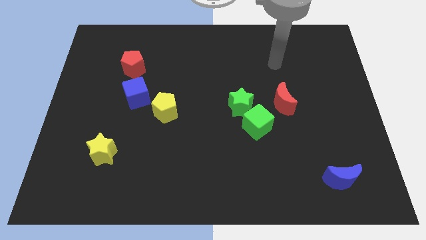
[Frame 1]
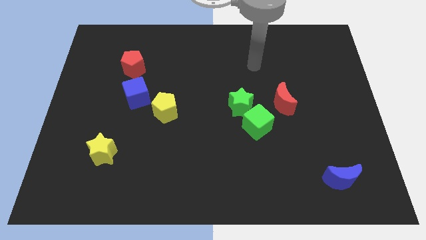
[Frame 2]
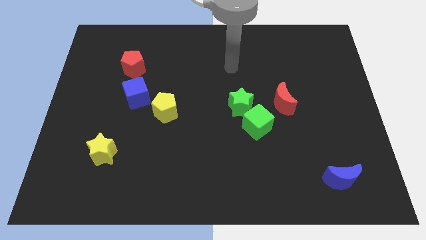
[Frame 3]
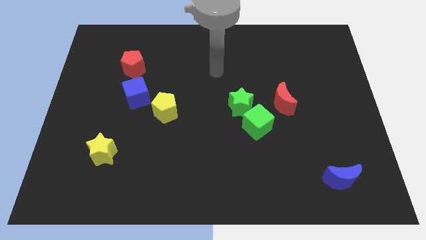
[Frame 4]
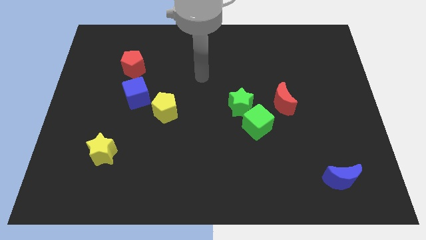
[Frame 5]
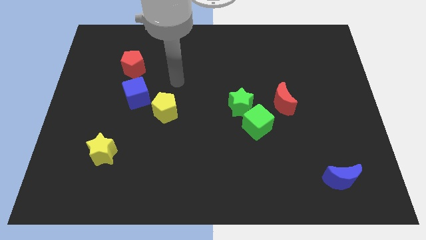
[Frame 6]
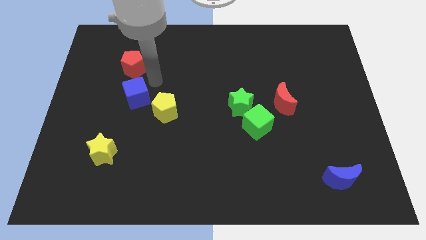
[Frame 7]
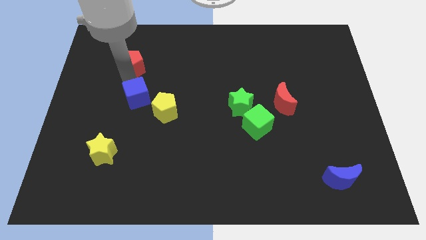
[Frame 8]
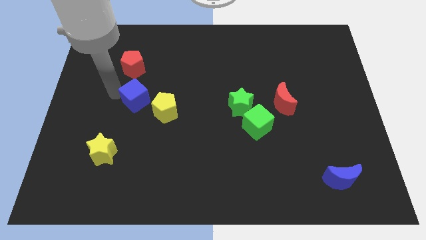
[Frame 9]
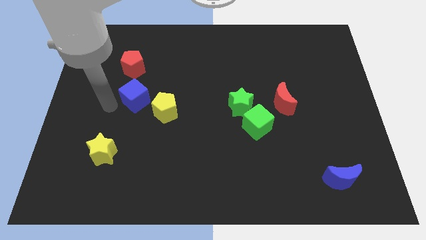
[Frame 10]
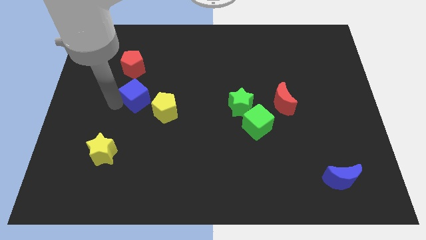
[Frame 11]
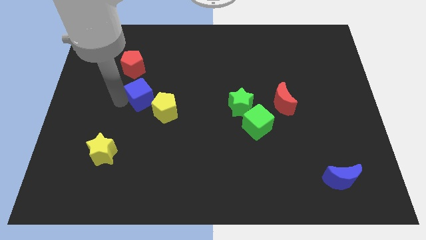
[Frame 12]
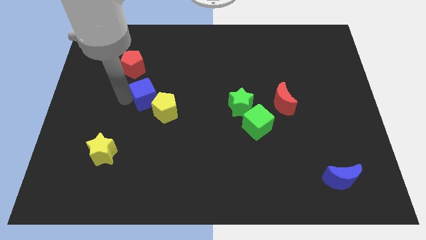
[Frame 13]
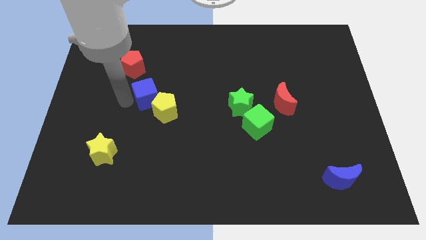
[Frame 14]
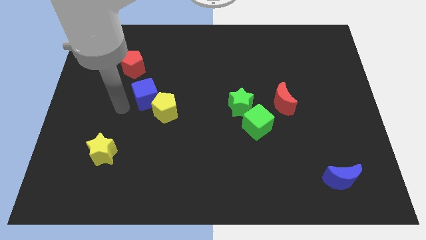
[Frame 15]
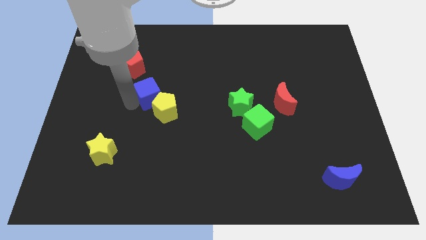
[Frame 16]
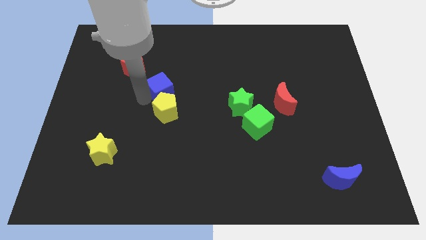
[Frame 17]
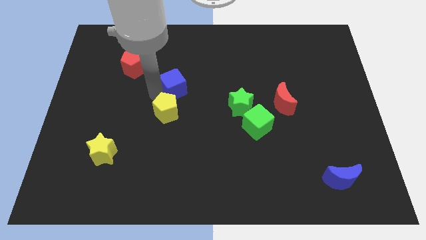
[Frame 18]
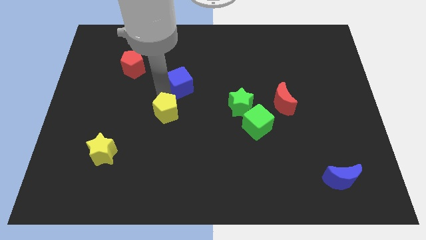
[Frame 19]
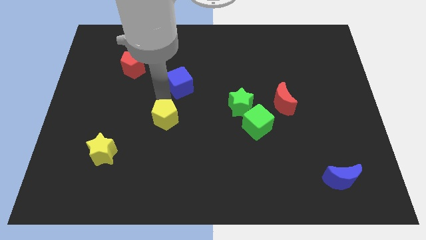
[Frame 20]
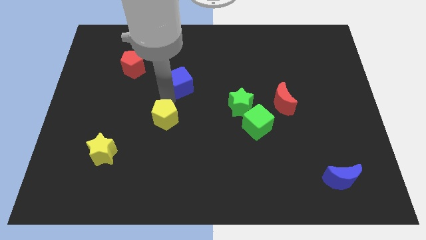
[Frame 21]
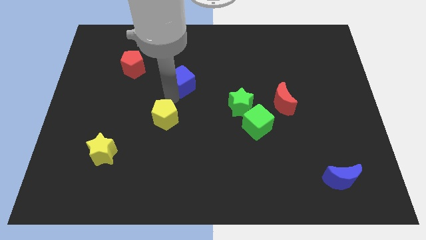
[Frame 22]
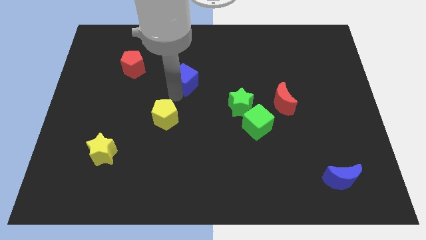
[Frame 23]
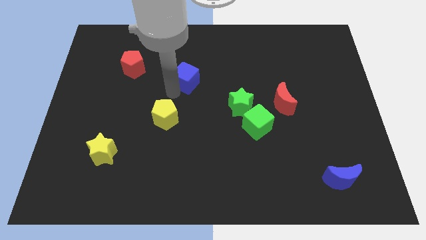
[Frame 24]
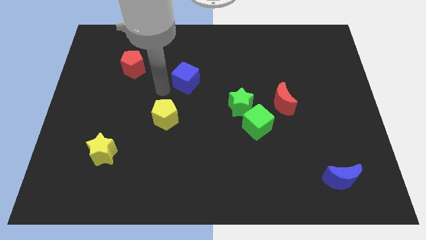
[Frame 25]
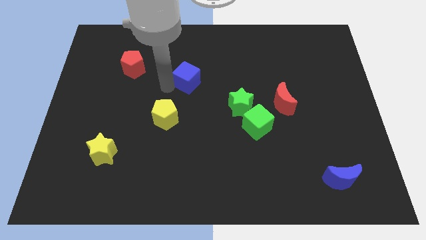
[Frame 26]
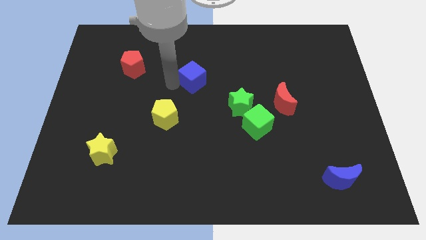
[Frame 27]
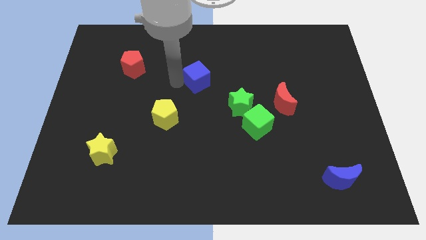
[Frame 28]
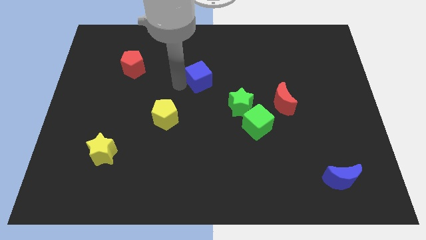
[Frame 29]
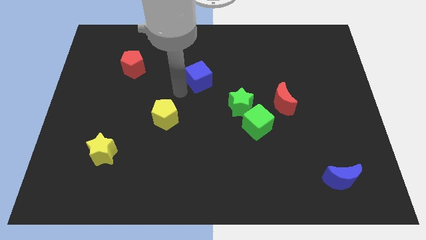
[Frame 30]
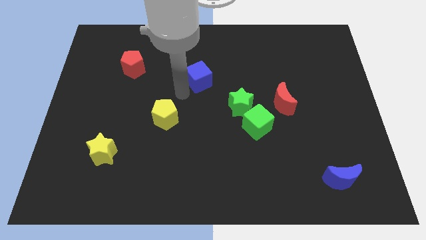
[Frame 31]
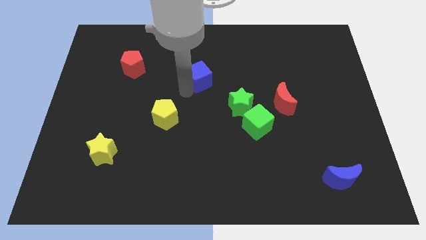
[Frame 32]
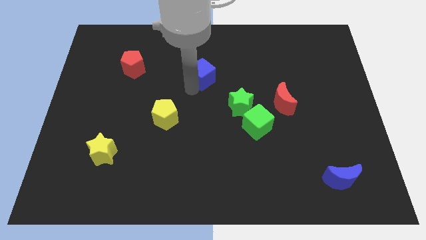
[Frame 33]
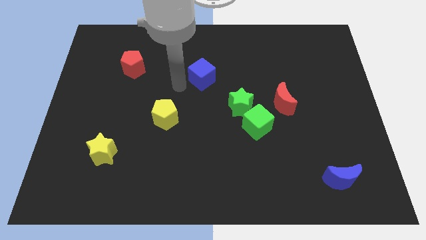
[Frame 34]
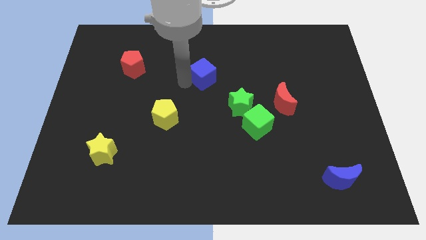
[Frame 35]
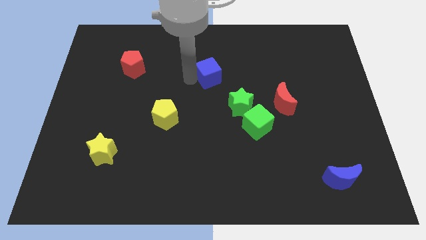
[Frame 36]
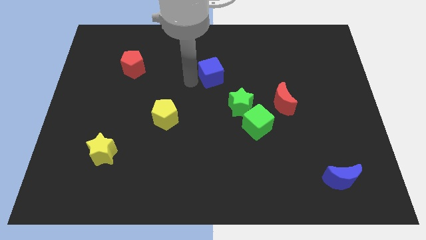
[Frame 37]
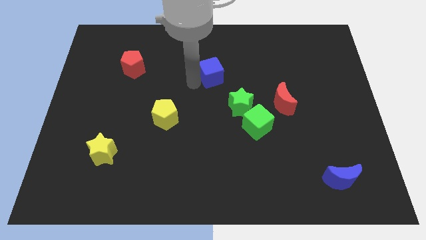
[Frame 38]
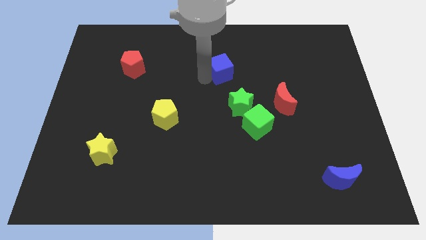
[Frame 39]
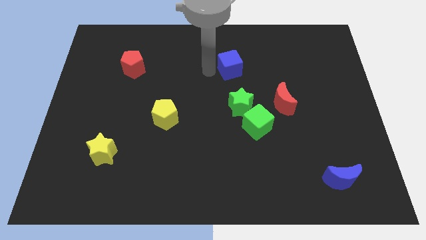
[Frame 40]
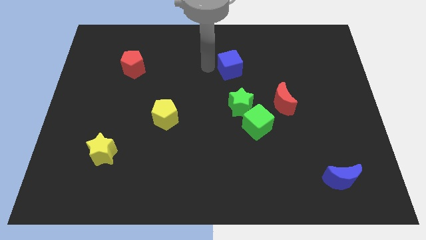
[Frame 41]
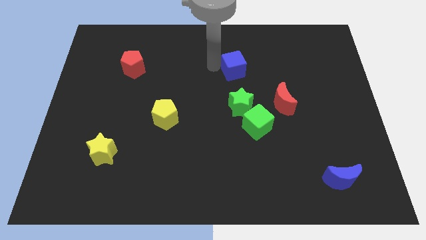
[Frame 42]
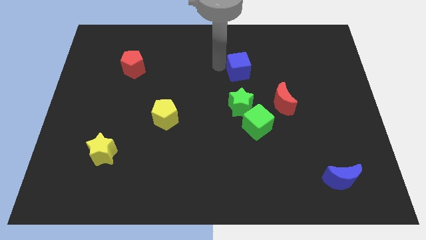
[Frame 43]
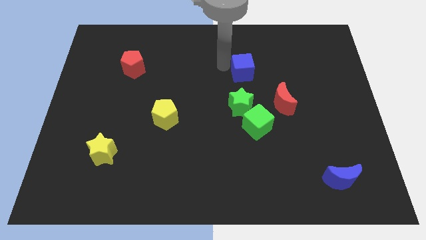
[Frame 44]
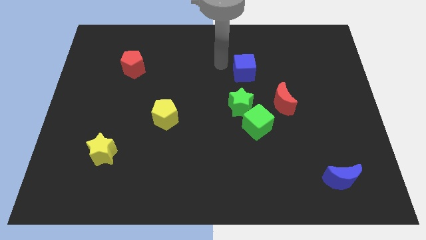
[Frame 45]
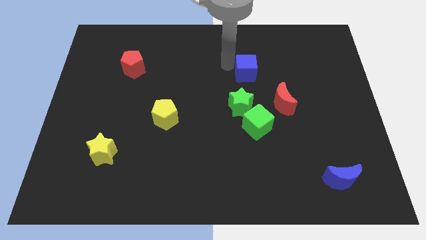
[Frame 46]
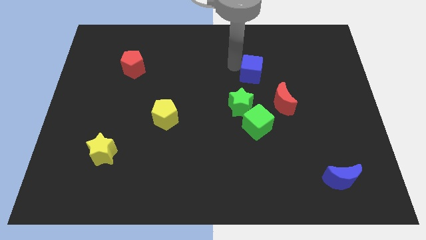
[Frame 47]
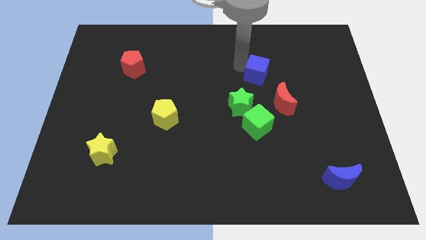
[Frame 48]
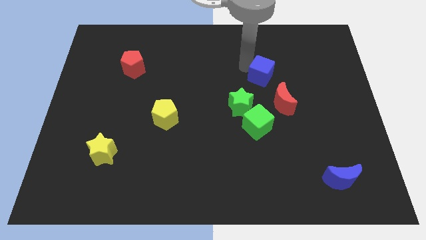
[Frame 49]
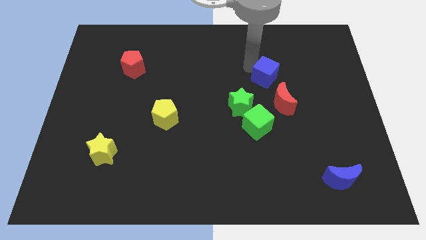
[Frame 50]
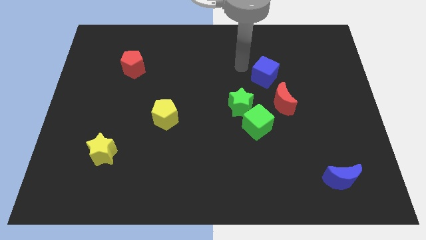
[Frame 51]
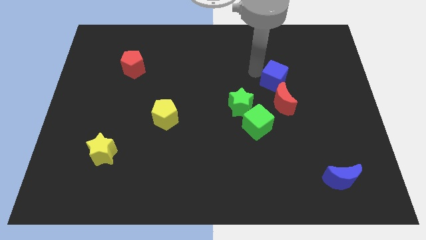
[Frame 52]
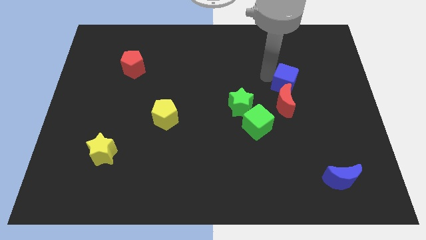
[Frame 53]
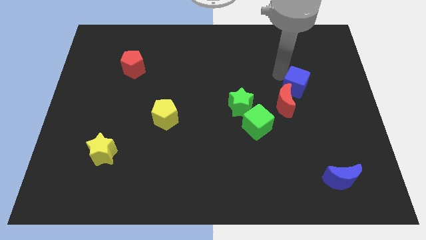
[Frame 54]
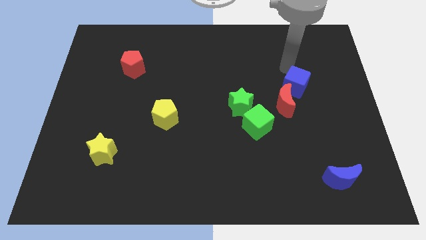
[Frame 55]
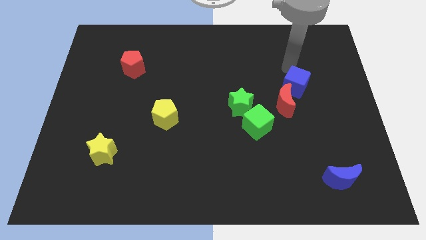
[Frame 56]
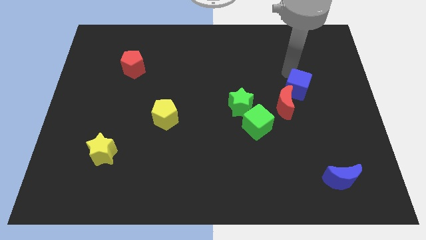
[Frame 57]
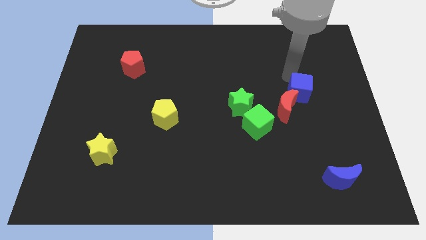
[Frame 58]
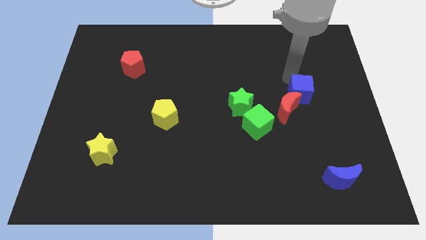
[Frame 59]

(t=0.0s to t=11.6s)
push the blue cube to the right of the green star

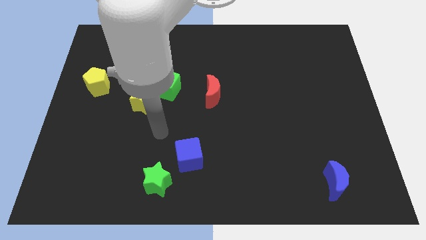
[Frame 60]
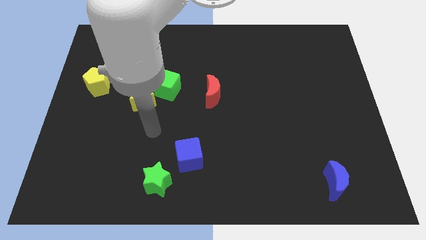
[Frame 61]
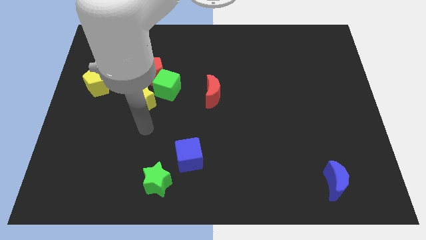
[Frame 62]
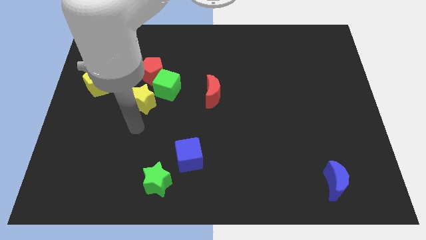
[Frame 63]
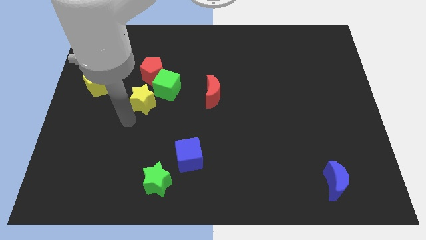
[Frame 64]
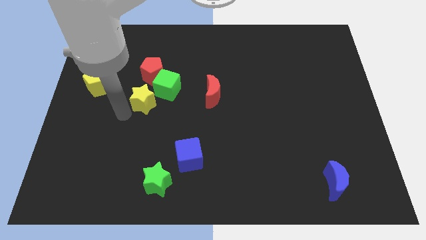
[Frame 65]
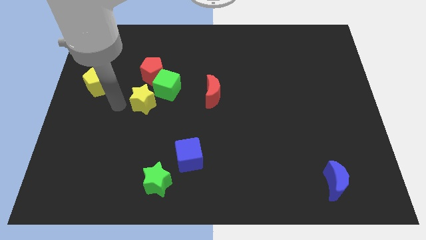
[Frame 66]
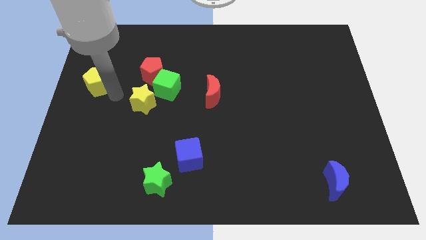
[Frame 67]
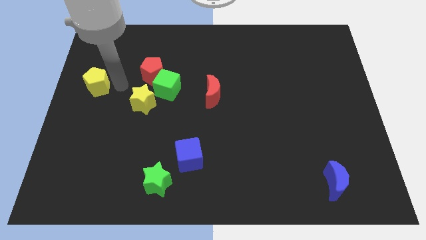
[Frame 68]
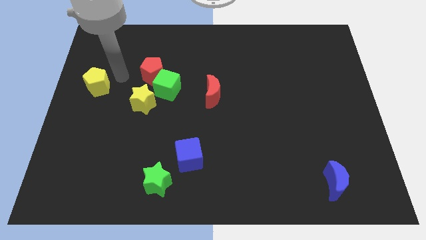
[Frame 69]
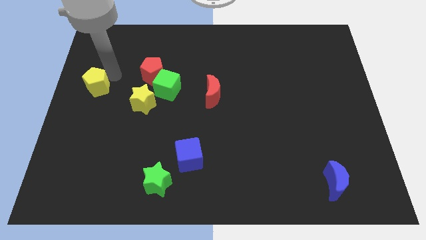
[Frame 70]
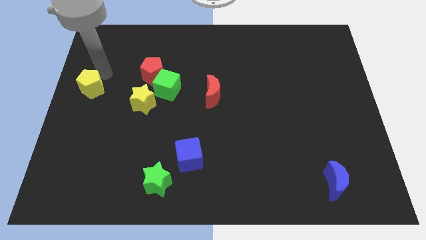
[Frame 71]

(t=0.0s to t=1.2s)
push the yellow pentagon just left of the yellow star
